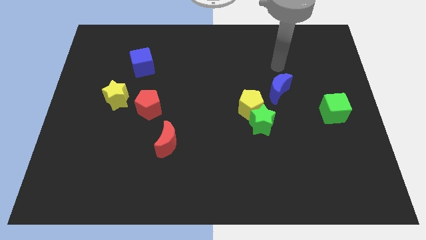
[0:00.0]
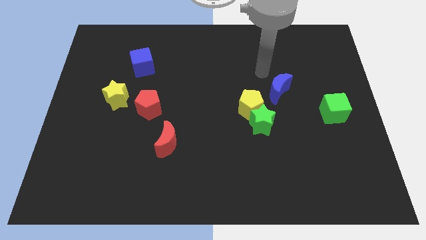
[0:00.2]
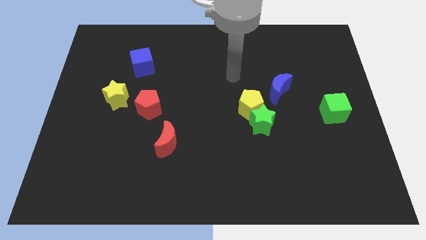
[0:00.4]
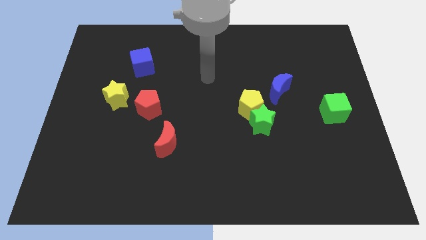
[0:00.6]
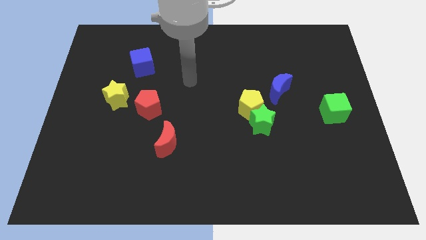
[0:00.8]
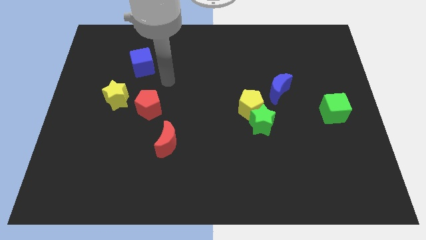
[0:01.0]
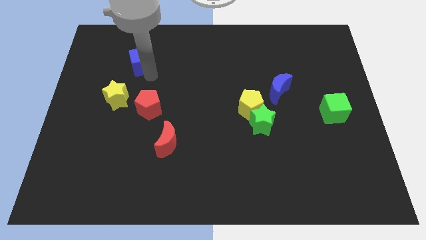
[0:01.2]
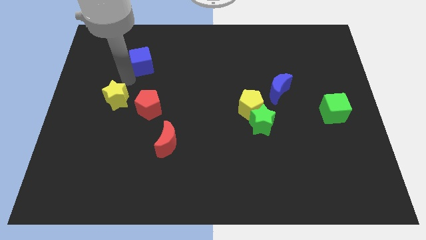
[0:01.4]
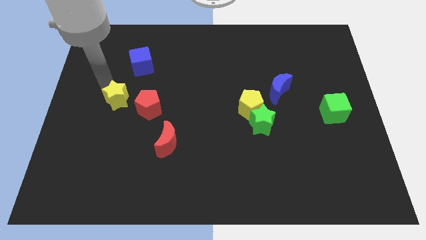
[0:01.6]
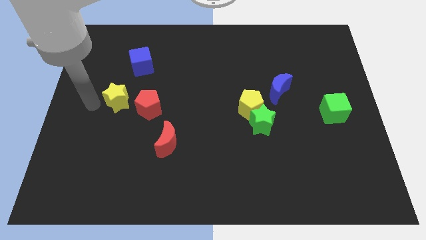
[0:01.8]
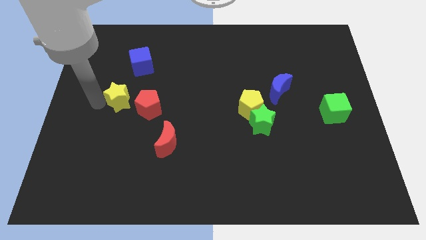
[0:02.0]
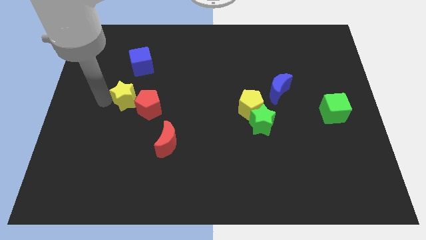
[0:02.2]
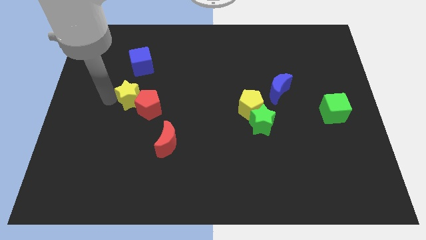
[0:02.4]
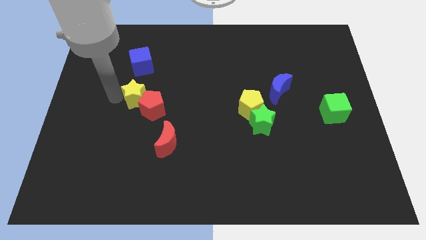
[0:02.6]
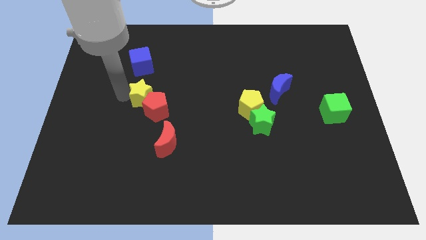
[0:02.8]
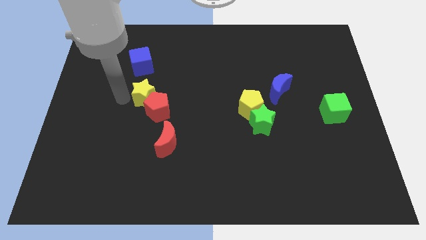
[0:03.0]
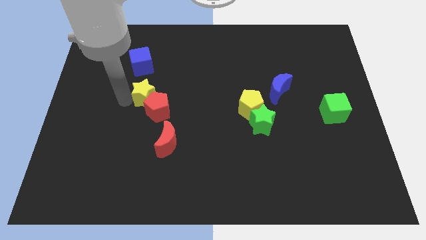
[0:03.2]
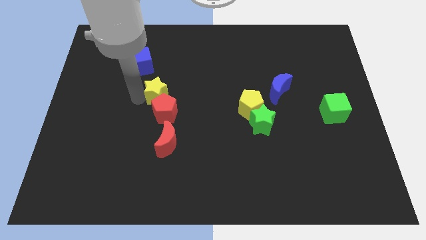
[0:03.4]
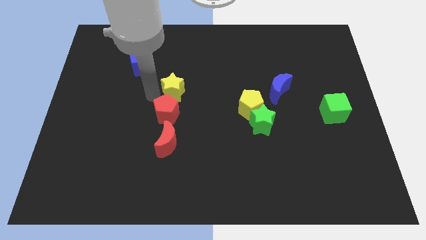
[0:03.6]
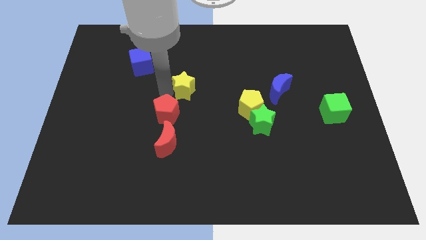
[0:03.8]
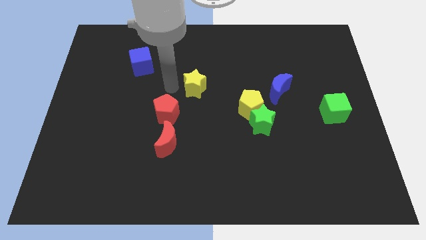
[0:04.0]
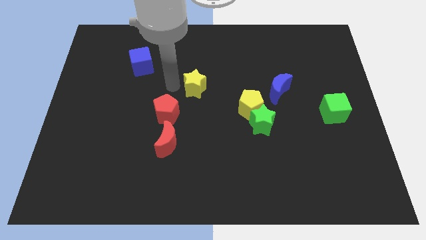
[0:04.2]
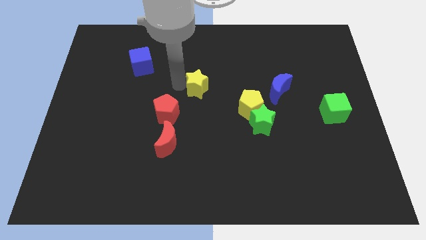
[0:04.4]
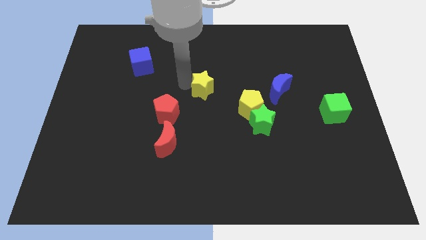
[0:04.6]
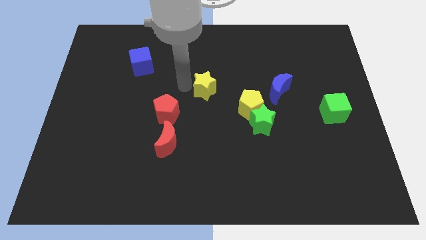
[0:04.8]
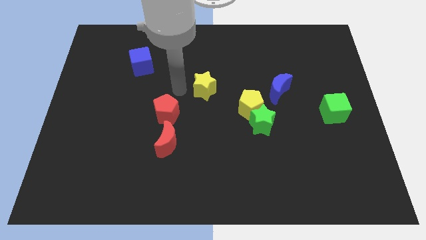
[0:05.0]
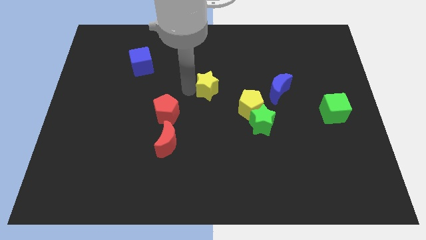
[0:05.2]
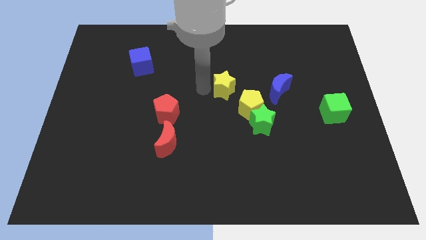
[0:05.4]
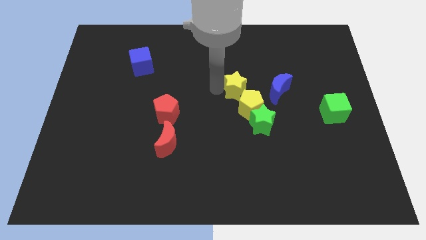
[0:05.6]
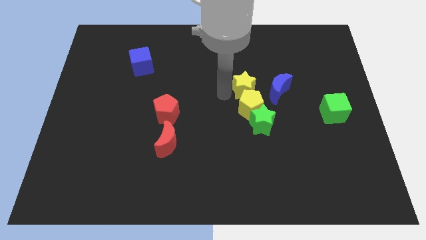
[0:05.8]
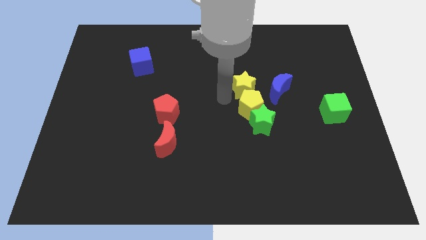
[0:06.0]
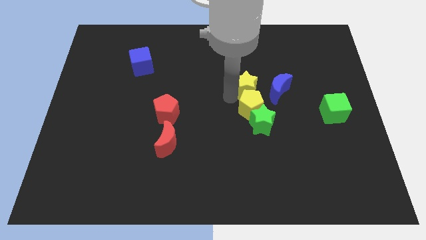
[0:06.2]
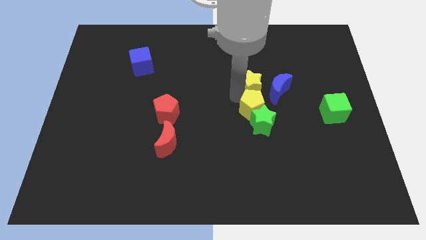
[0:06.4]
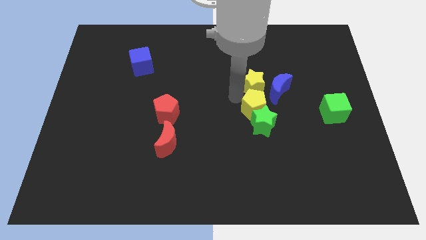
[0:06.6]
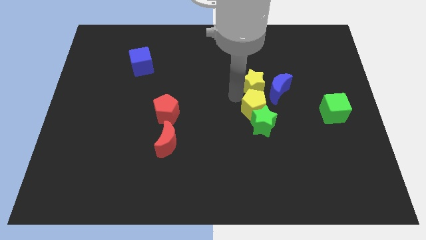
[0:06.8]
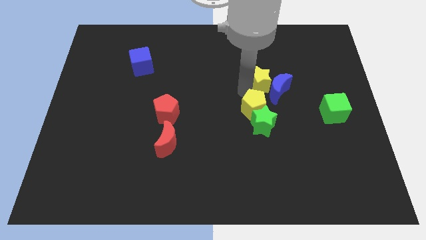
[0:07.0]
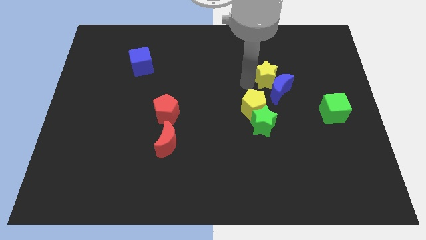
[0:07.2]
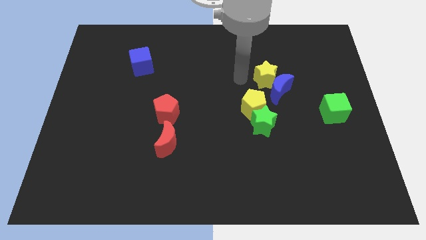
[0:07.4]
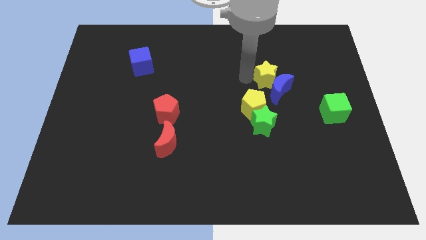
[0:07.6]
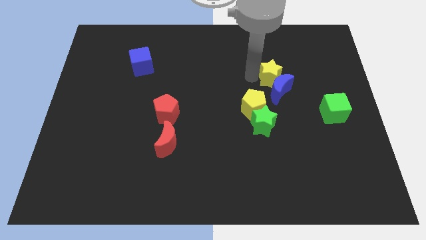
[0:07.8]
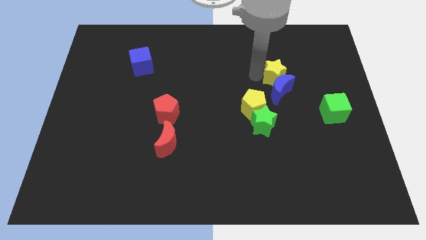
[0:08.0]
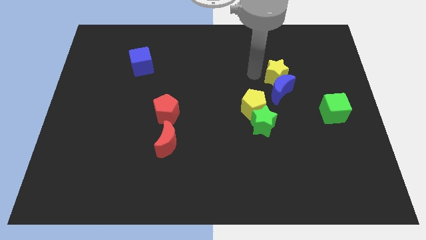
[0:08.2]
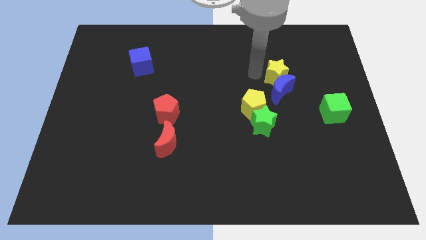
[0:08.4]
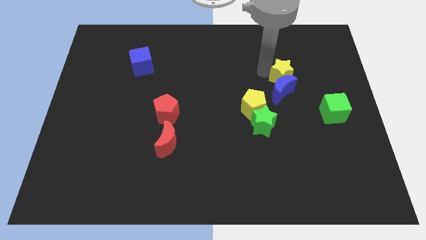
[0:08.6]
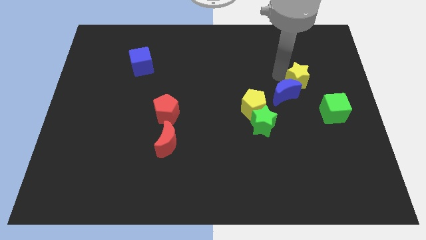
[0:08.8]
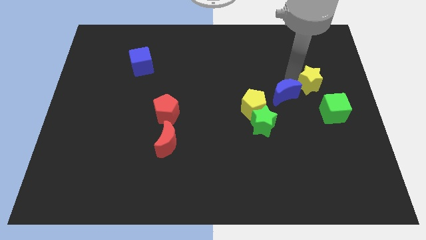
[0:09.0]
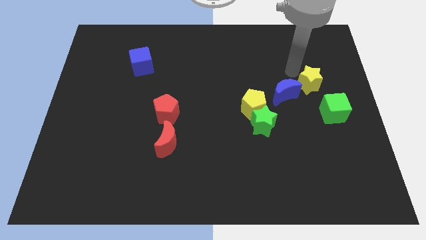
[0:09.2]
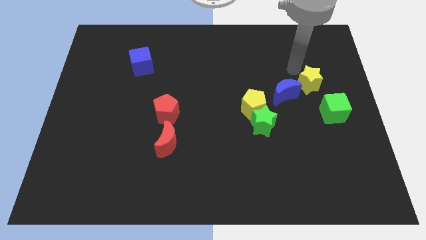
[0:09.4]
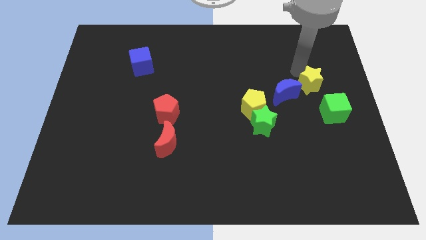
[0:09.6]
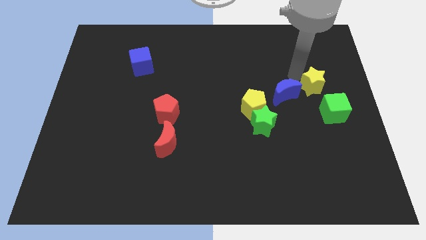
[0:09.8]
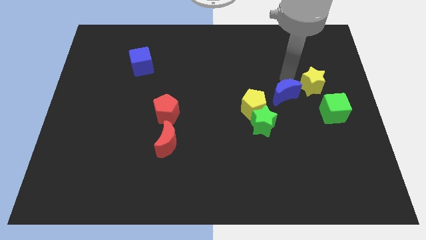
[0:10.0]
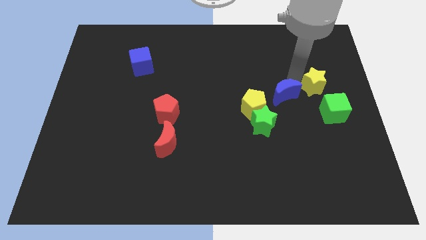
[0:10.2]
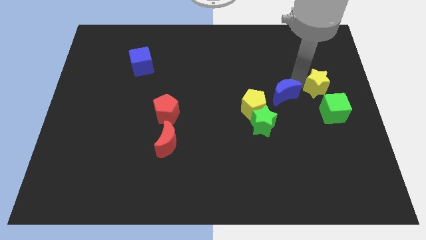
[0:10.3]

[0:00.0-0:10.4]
push the yellow star to the center right

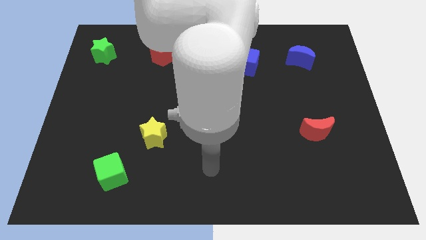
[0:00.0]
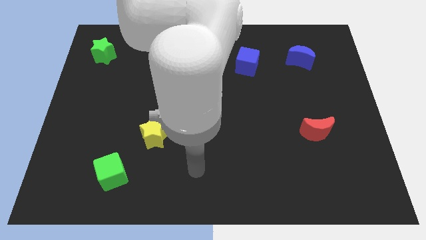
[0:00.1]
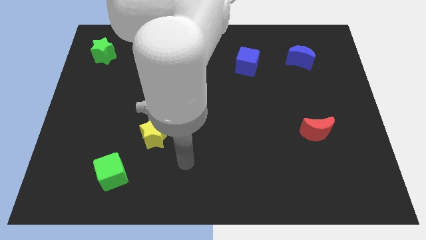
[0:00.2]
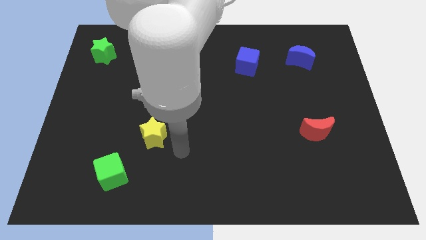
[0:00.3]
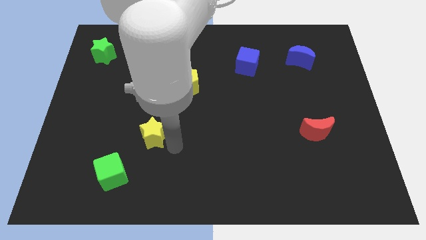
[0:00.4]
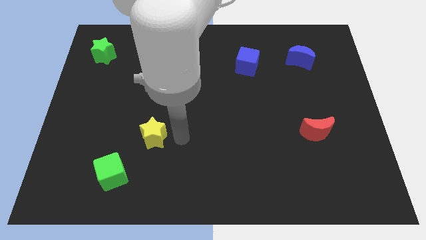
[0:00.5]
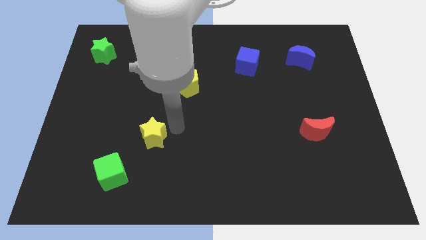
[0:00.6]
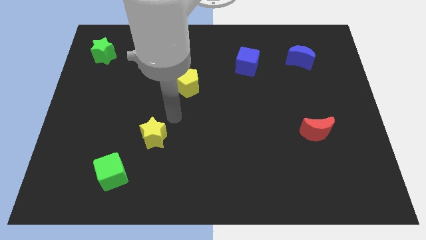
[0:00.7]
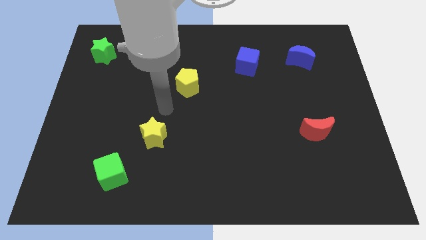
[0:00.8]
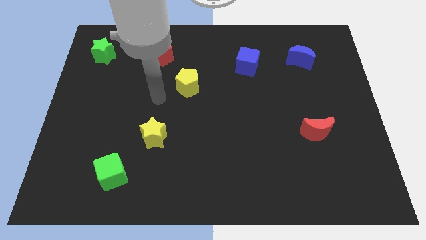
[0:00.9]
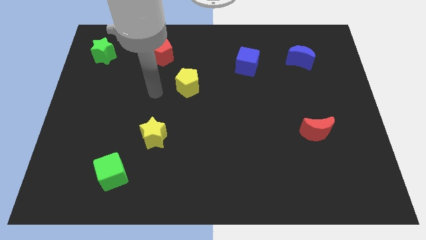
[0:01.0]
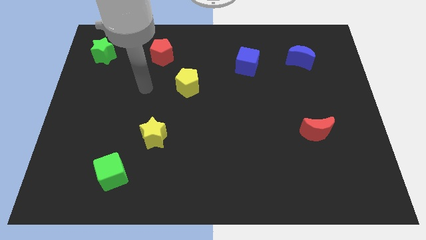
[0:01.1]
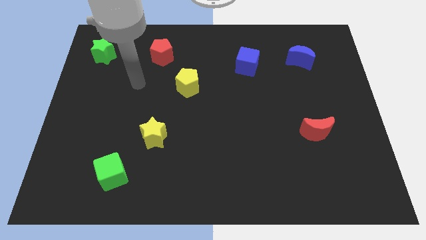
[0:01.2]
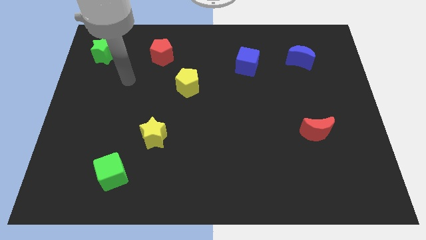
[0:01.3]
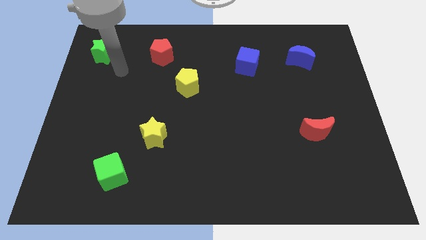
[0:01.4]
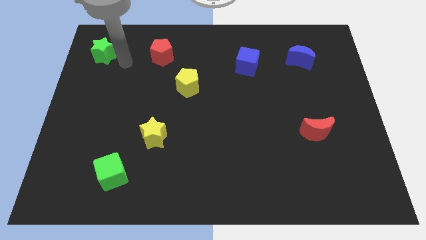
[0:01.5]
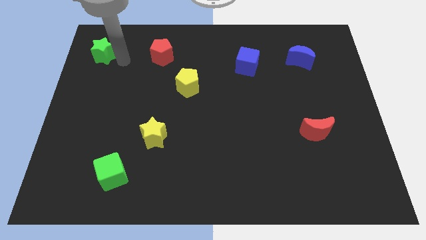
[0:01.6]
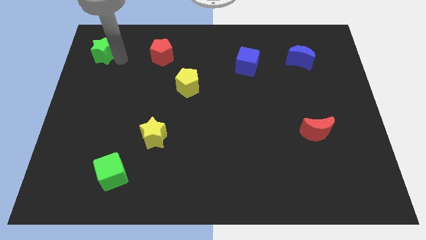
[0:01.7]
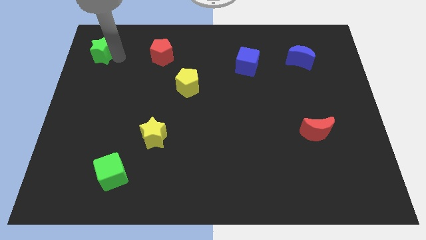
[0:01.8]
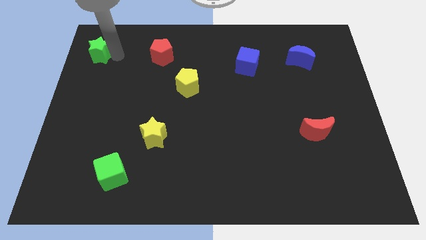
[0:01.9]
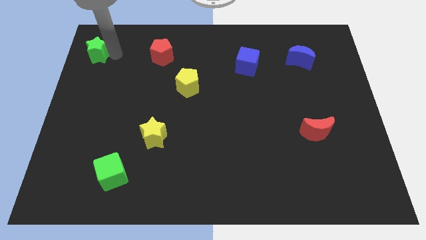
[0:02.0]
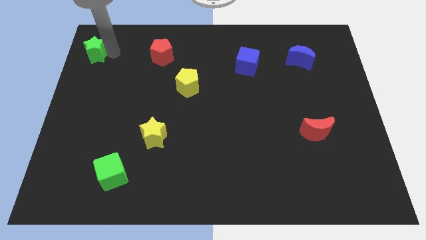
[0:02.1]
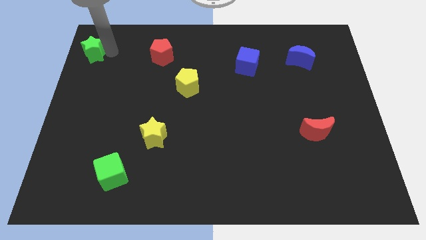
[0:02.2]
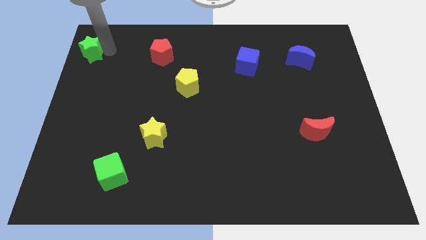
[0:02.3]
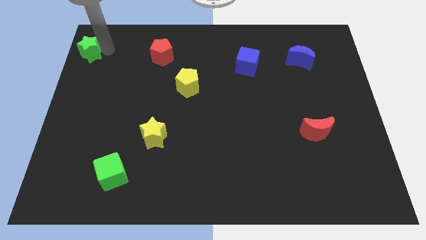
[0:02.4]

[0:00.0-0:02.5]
push the green star to the top left
